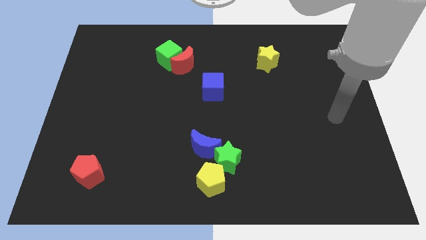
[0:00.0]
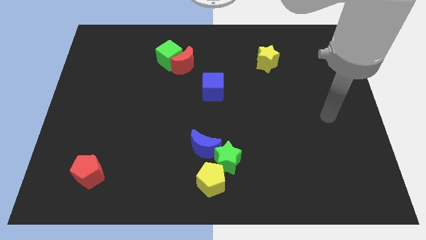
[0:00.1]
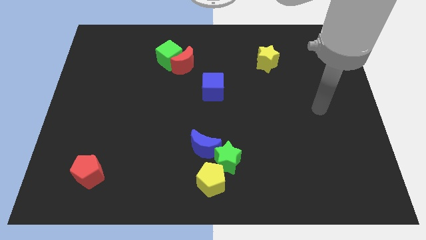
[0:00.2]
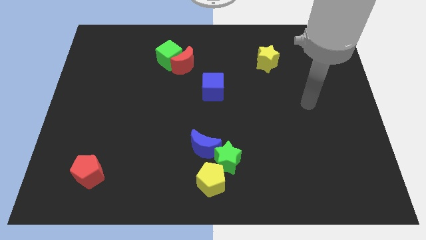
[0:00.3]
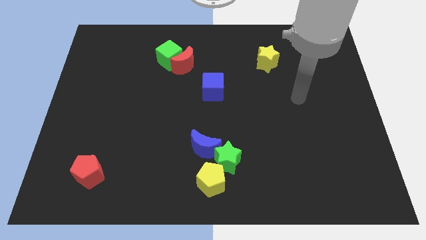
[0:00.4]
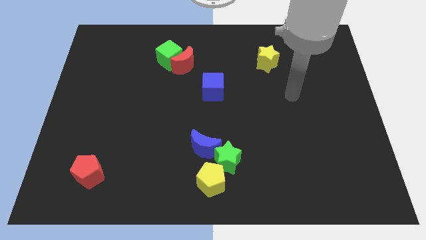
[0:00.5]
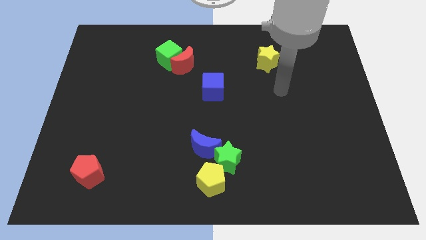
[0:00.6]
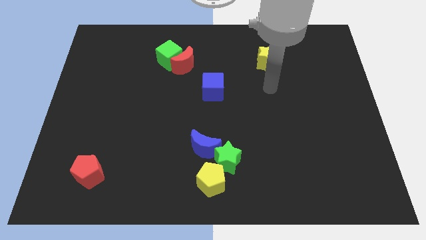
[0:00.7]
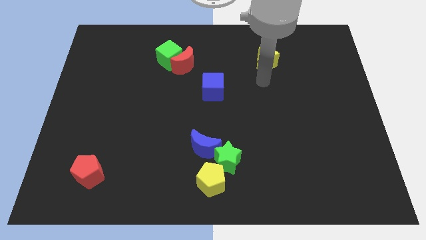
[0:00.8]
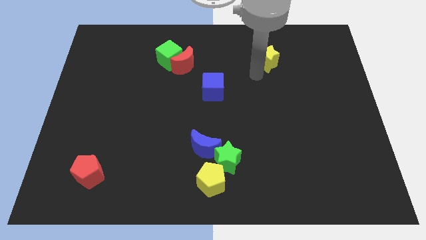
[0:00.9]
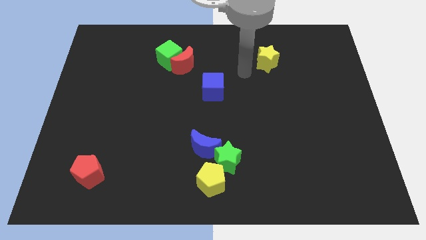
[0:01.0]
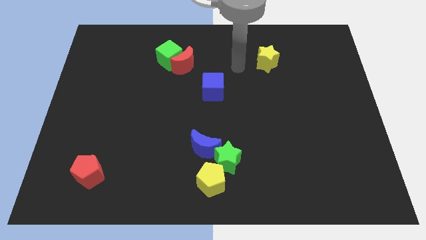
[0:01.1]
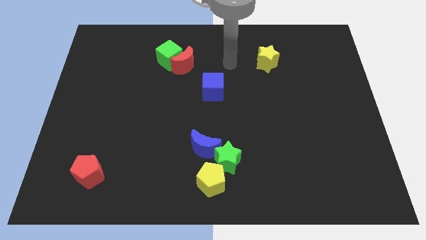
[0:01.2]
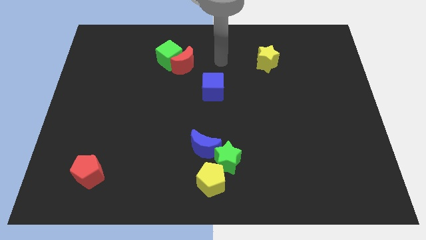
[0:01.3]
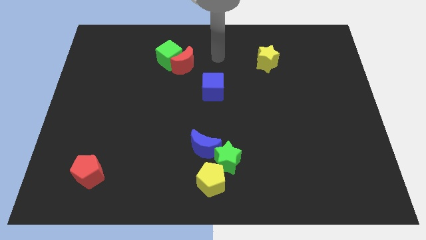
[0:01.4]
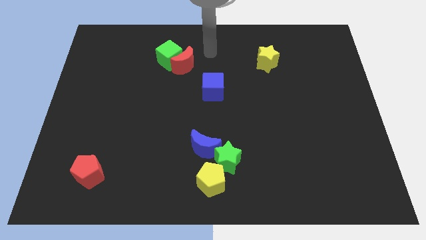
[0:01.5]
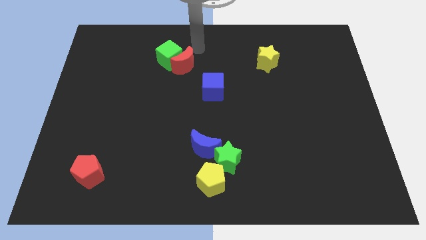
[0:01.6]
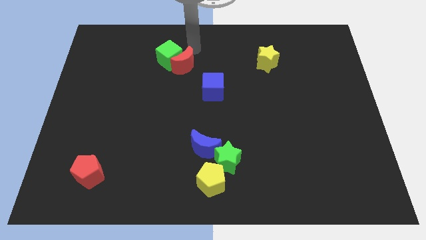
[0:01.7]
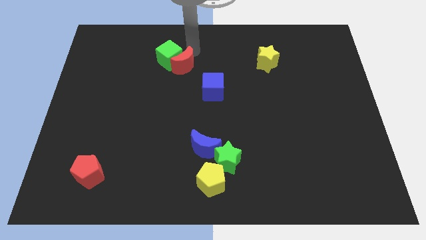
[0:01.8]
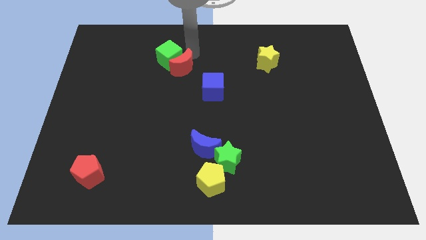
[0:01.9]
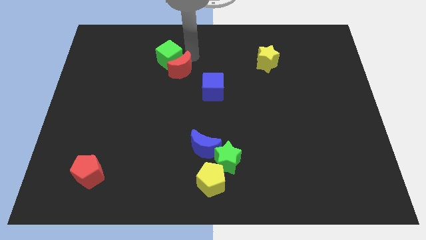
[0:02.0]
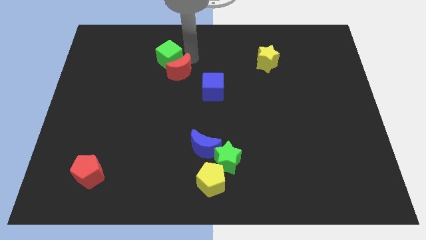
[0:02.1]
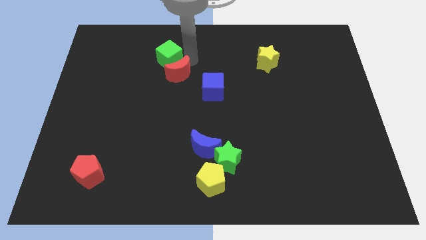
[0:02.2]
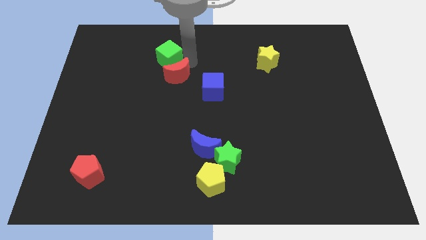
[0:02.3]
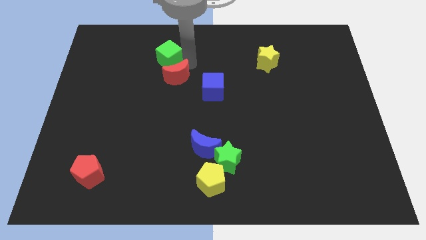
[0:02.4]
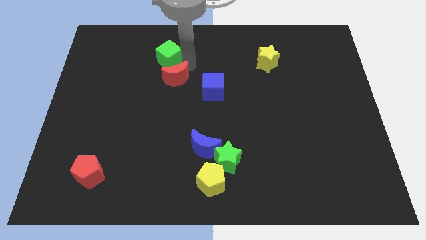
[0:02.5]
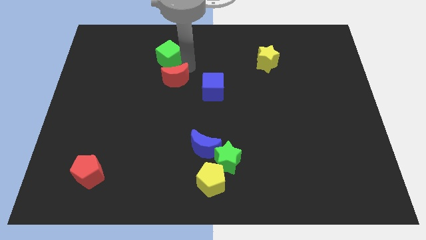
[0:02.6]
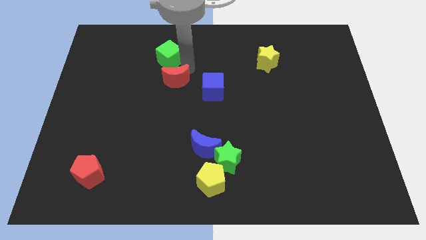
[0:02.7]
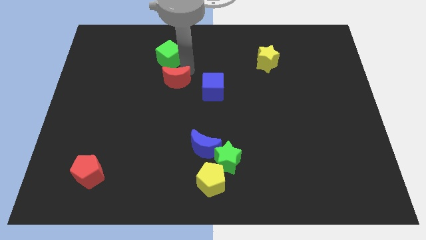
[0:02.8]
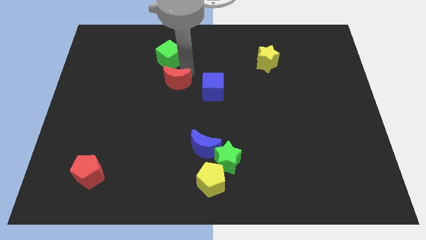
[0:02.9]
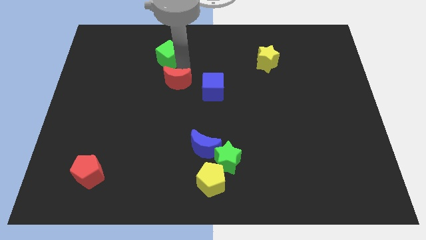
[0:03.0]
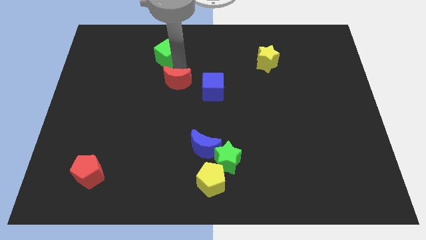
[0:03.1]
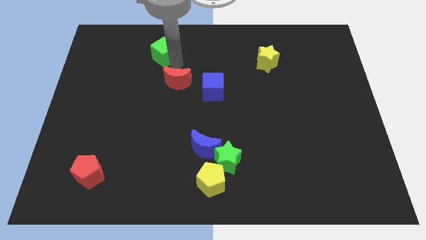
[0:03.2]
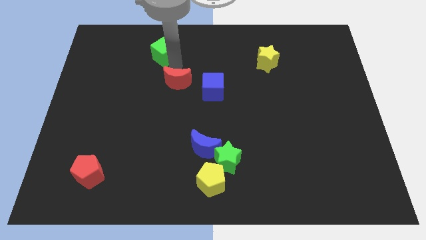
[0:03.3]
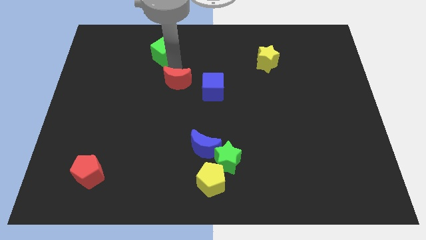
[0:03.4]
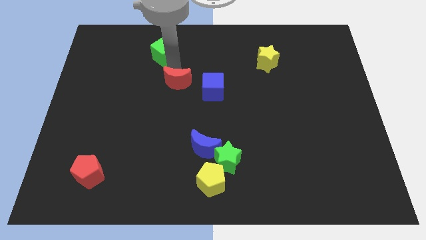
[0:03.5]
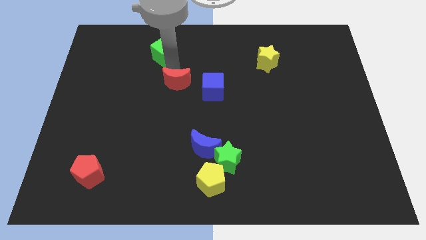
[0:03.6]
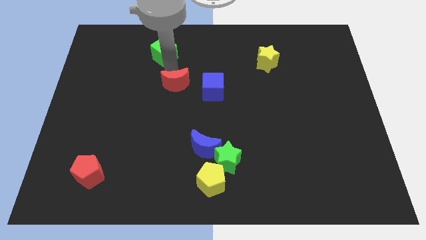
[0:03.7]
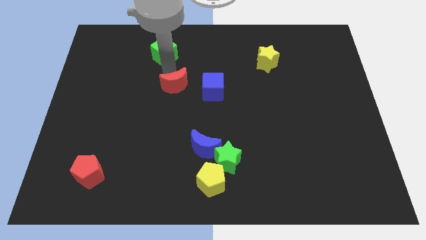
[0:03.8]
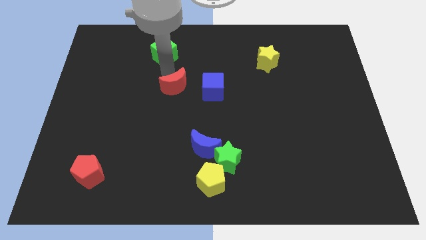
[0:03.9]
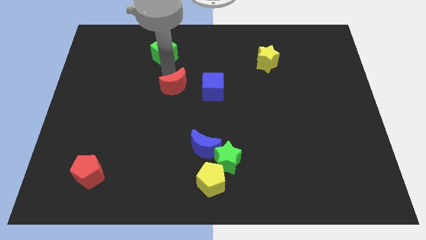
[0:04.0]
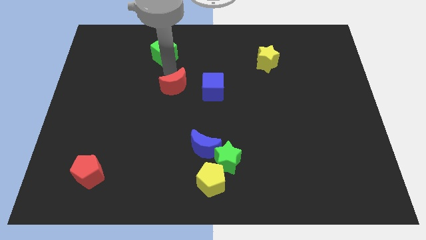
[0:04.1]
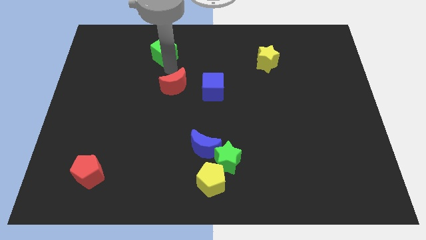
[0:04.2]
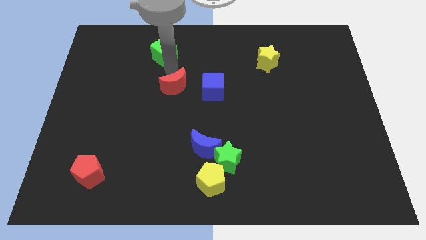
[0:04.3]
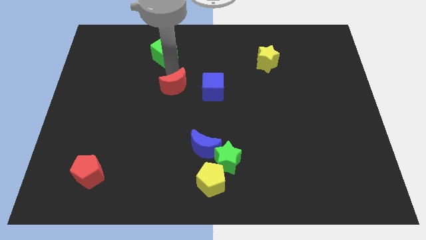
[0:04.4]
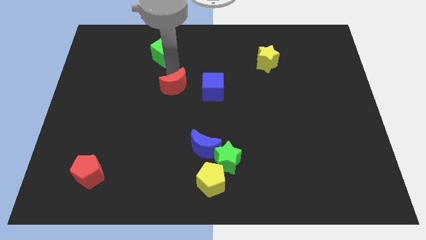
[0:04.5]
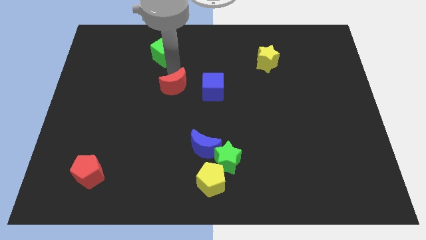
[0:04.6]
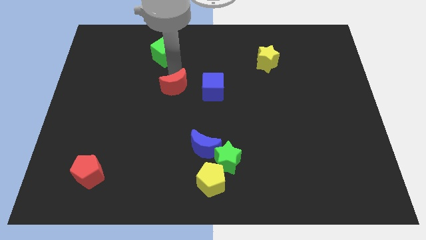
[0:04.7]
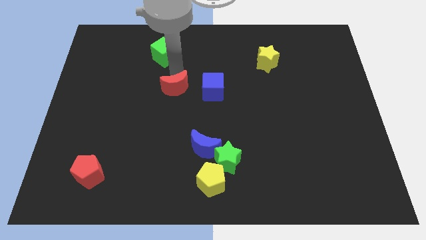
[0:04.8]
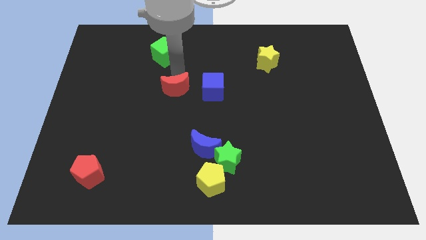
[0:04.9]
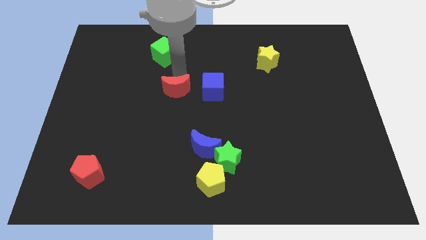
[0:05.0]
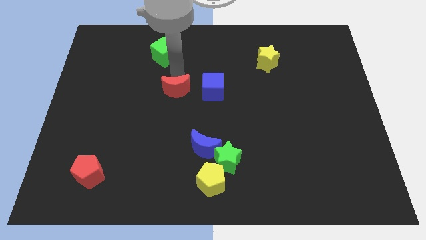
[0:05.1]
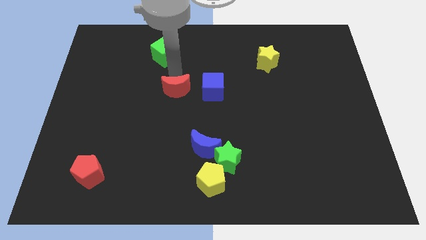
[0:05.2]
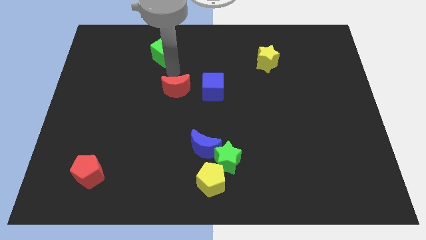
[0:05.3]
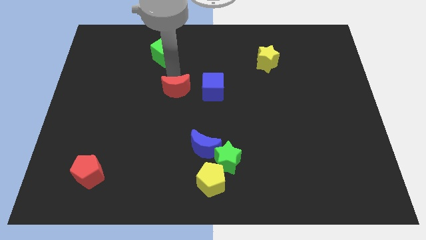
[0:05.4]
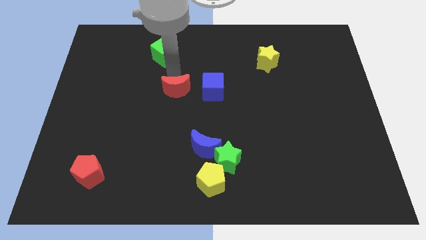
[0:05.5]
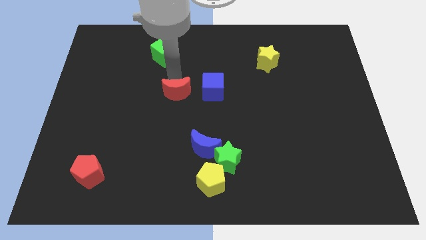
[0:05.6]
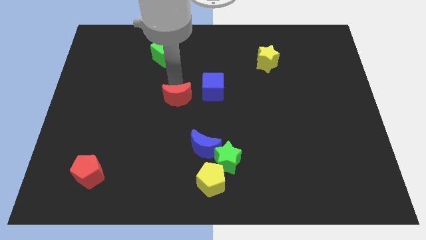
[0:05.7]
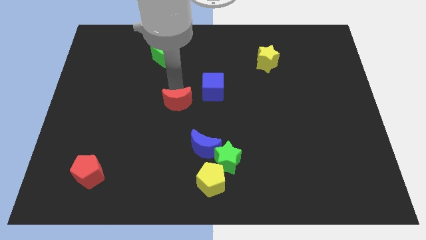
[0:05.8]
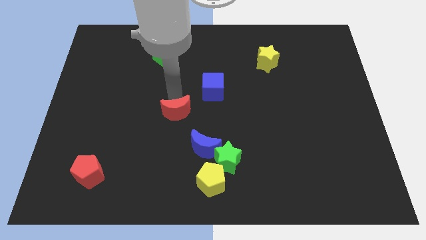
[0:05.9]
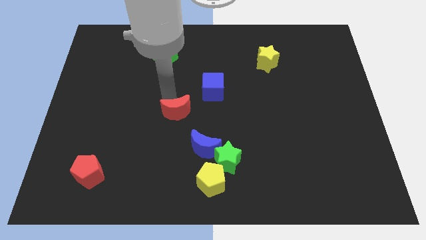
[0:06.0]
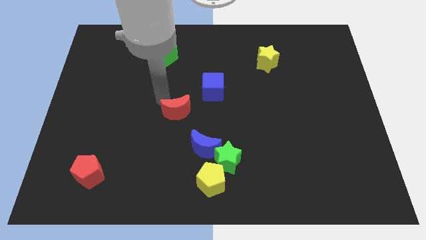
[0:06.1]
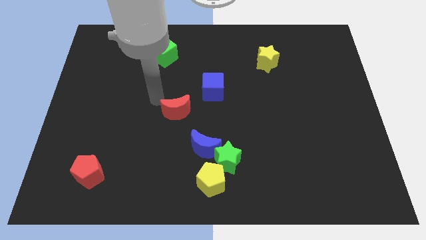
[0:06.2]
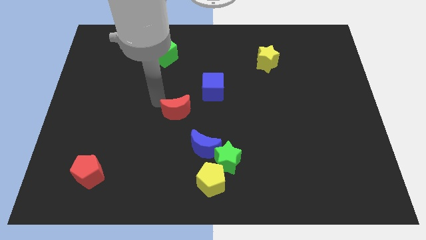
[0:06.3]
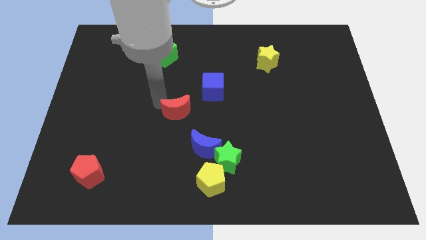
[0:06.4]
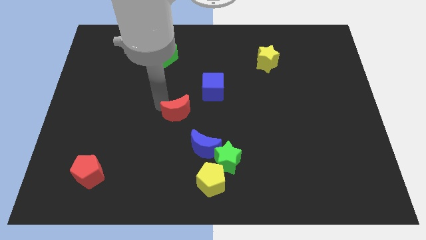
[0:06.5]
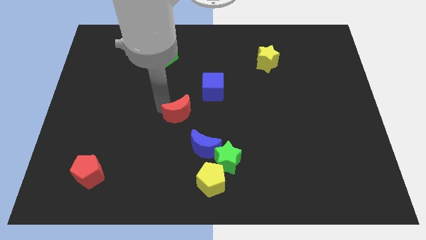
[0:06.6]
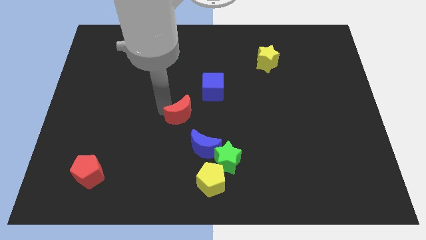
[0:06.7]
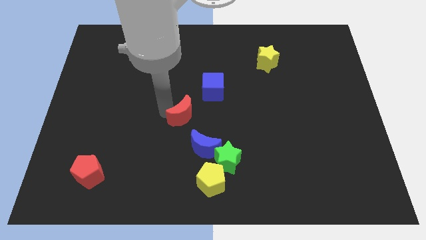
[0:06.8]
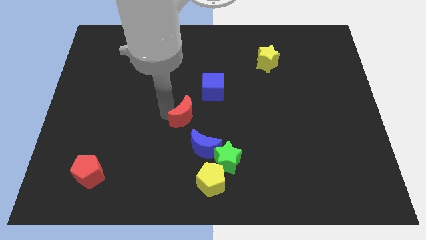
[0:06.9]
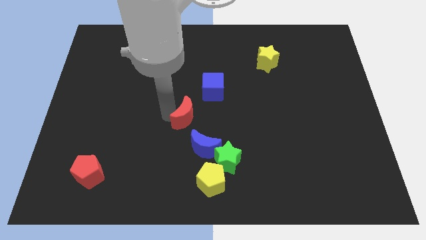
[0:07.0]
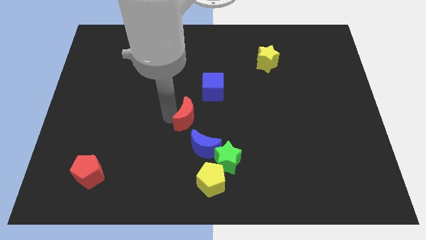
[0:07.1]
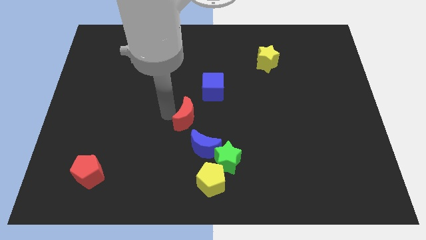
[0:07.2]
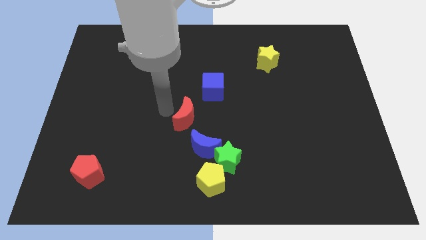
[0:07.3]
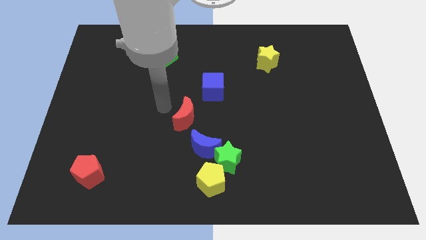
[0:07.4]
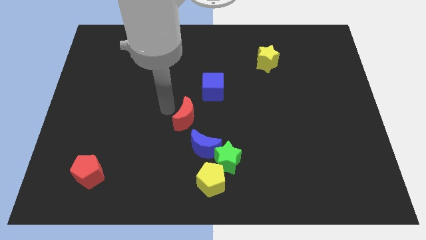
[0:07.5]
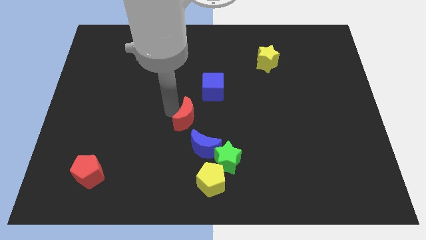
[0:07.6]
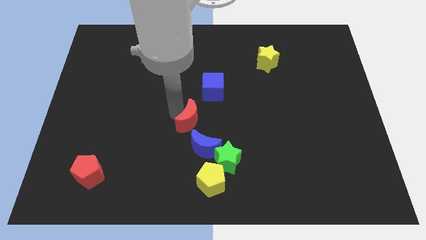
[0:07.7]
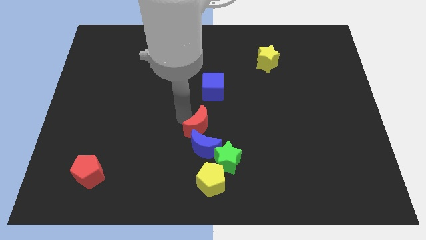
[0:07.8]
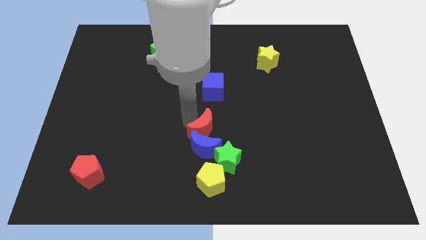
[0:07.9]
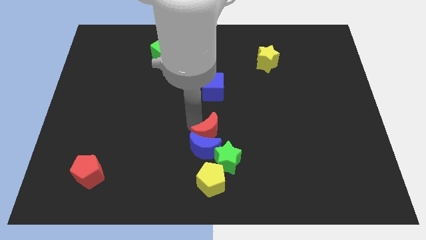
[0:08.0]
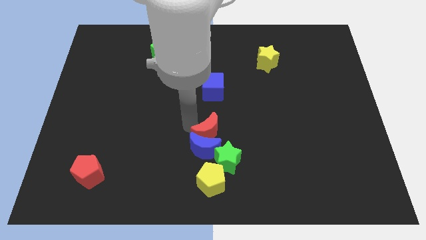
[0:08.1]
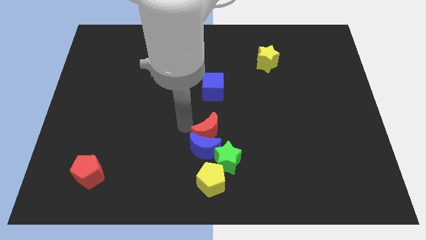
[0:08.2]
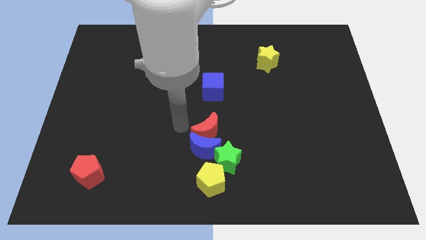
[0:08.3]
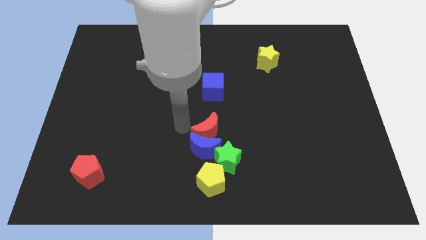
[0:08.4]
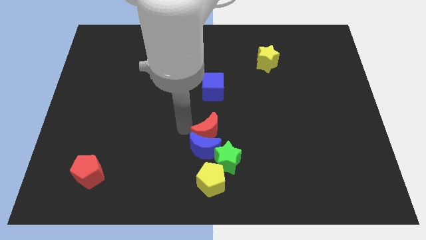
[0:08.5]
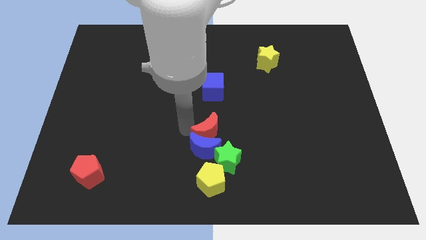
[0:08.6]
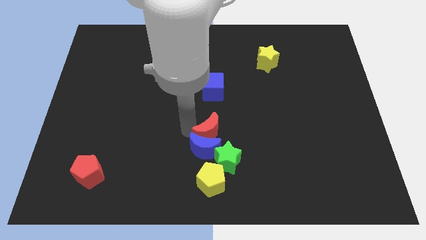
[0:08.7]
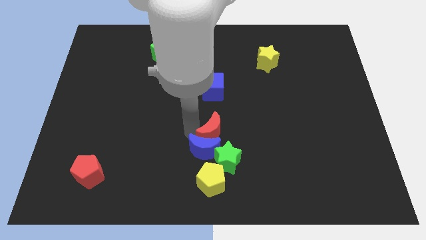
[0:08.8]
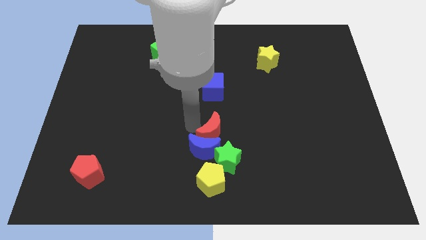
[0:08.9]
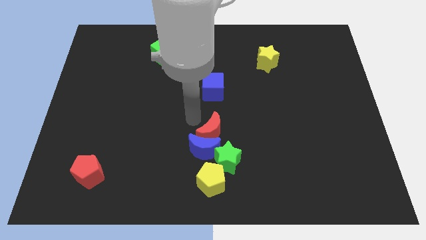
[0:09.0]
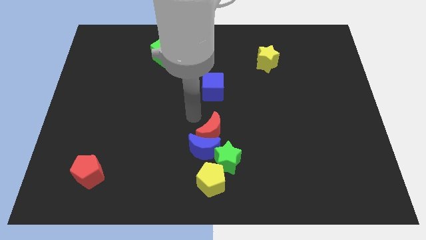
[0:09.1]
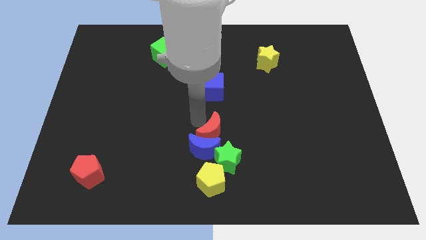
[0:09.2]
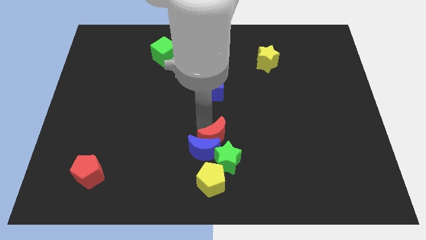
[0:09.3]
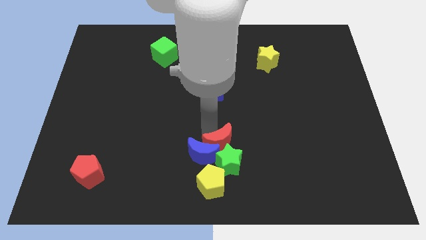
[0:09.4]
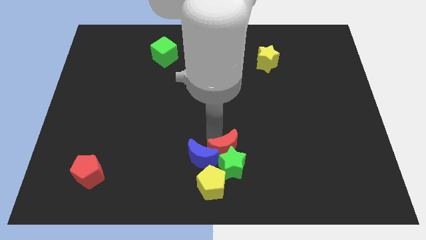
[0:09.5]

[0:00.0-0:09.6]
push the red moon diagonally up and to the right of the yellow pentagon
